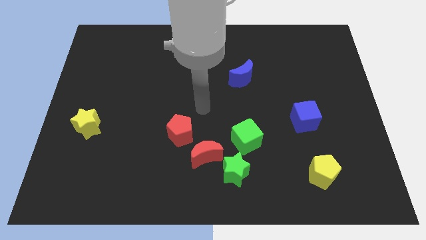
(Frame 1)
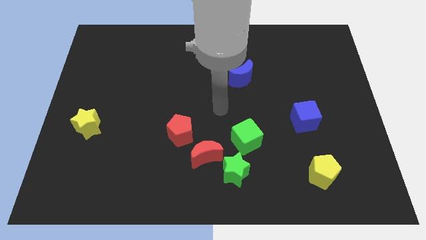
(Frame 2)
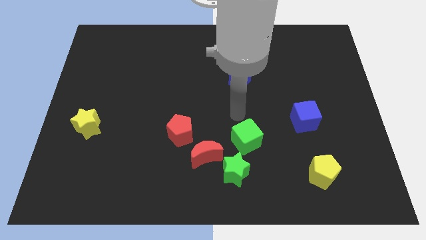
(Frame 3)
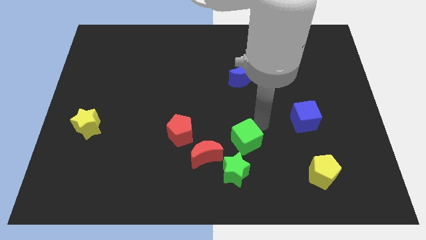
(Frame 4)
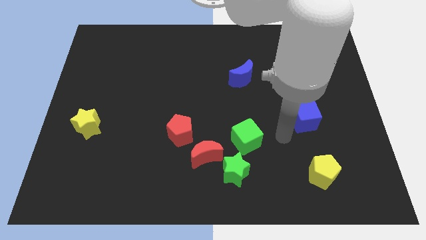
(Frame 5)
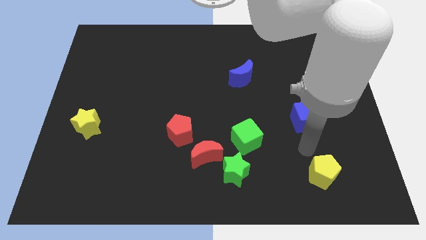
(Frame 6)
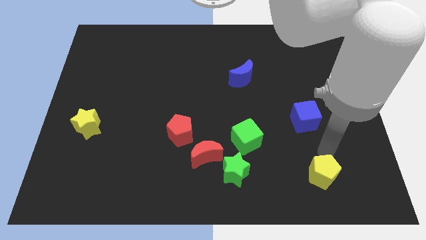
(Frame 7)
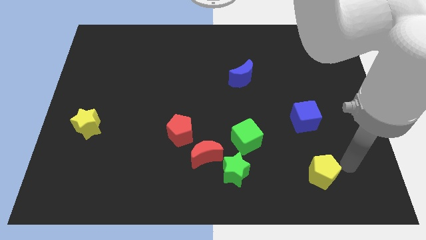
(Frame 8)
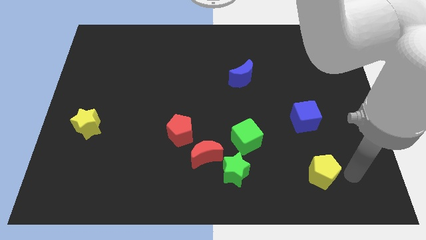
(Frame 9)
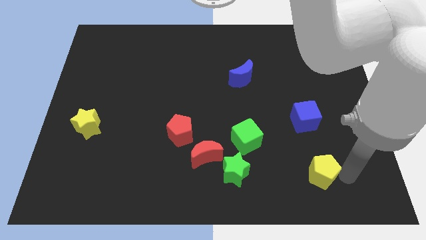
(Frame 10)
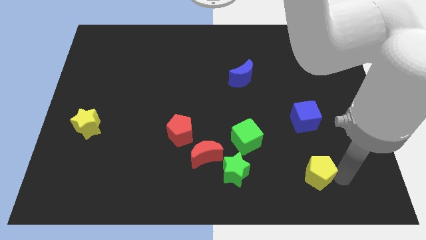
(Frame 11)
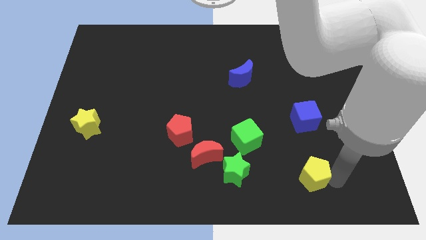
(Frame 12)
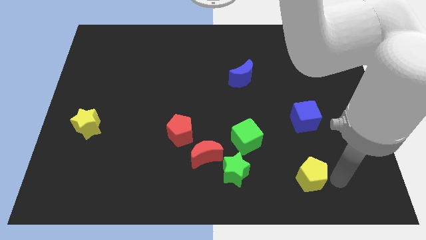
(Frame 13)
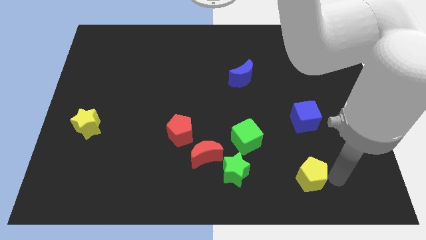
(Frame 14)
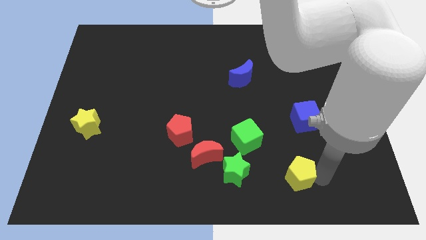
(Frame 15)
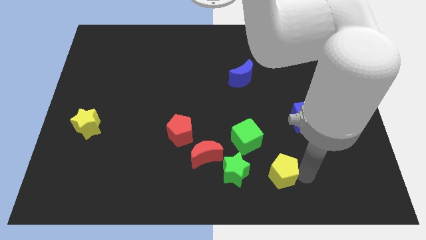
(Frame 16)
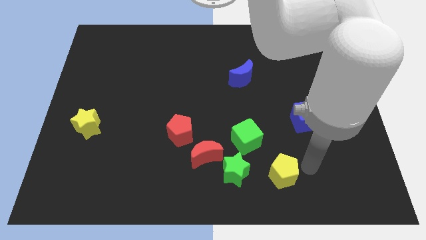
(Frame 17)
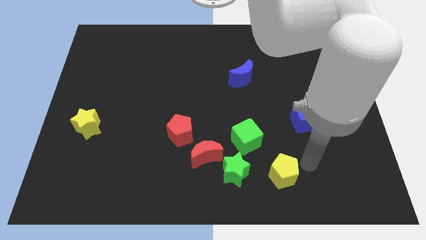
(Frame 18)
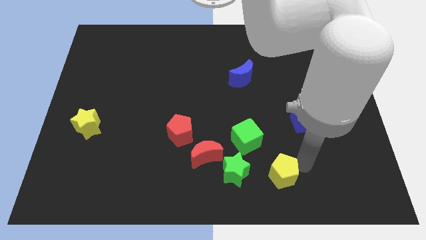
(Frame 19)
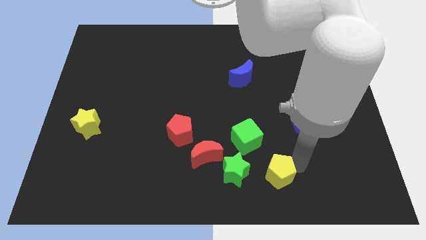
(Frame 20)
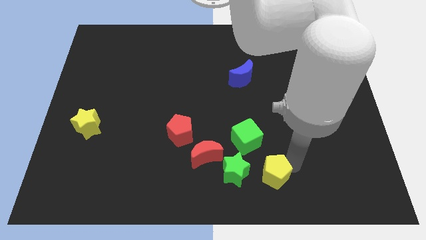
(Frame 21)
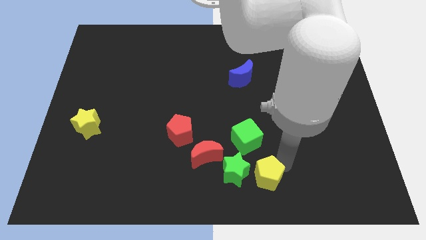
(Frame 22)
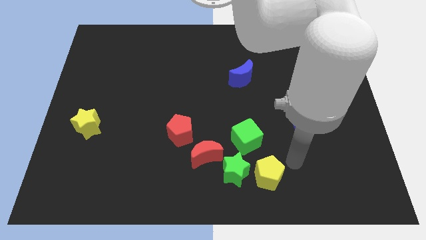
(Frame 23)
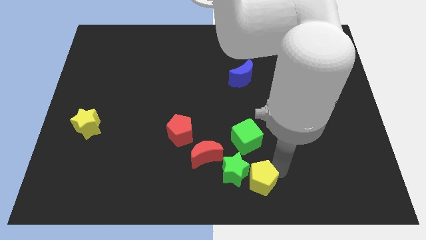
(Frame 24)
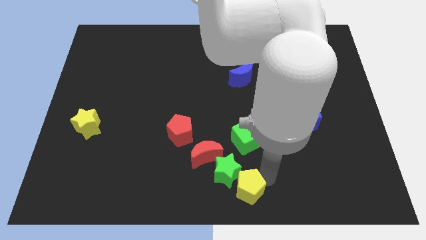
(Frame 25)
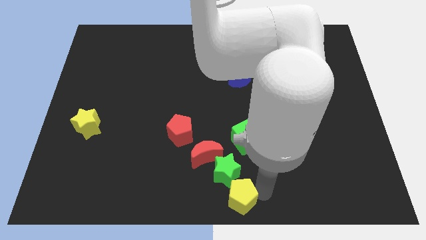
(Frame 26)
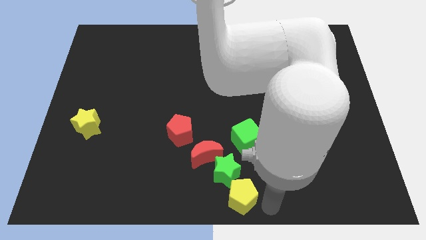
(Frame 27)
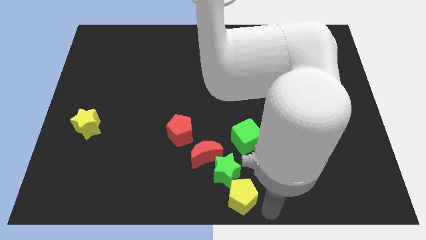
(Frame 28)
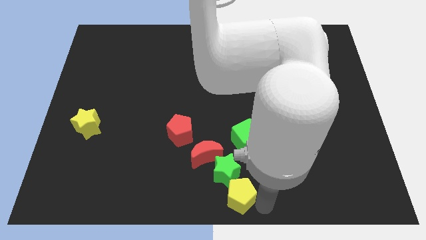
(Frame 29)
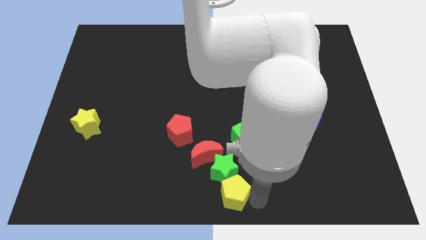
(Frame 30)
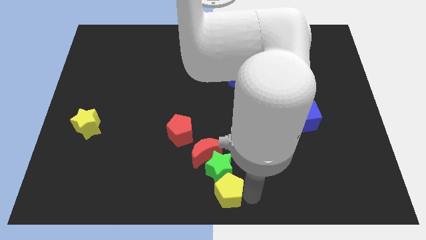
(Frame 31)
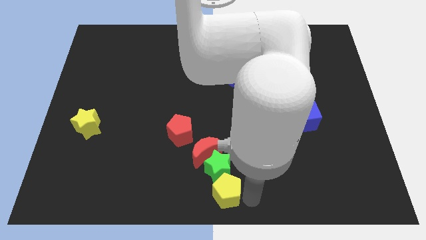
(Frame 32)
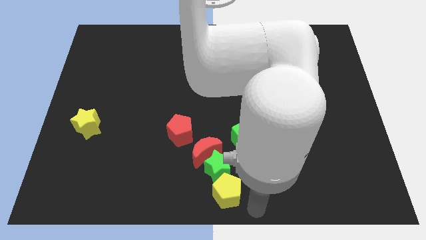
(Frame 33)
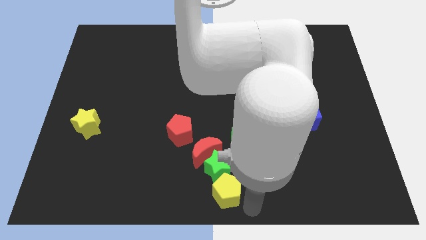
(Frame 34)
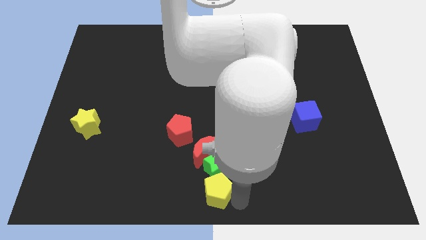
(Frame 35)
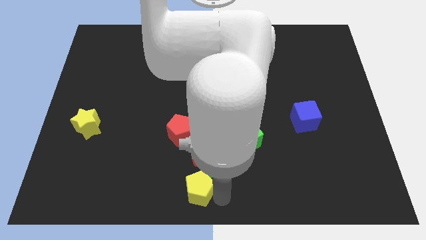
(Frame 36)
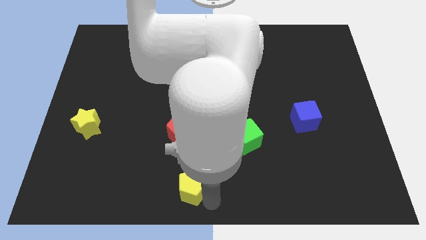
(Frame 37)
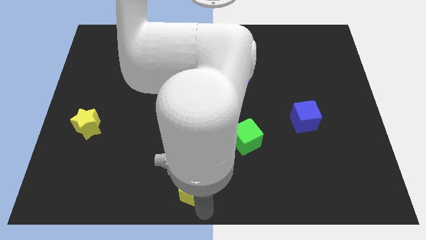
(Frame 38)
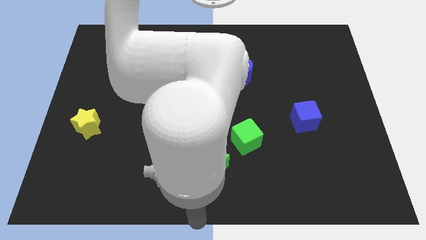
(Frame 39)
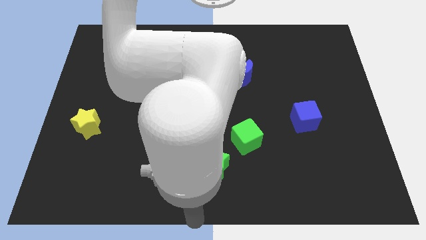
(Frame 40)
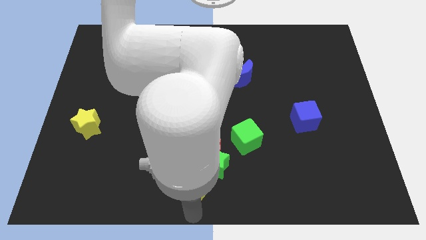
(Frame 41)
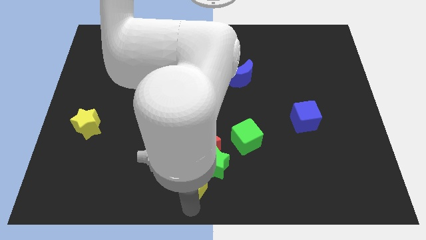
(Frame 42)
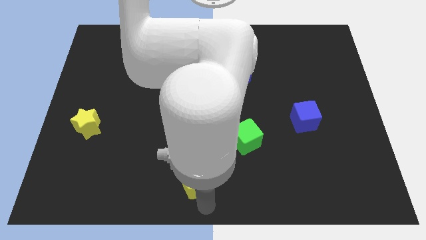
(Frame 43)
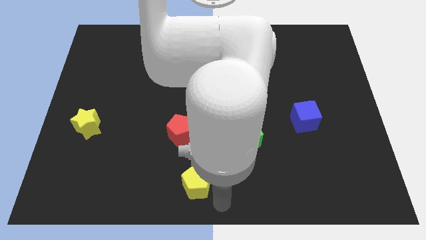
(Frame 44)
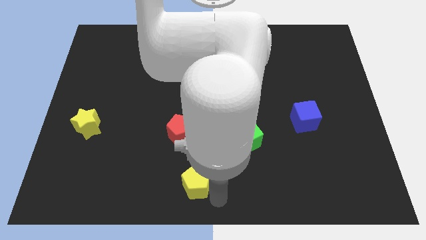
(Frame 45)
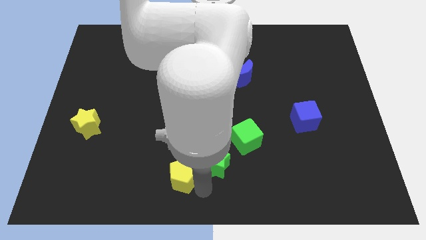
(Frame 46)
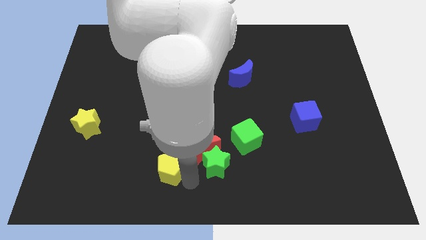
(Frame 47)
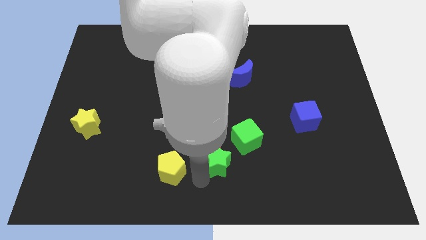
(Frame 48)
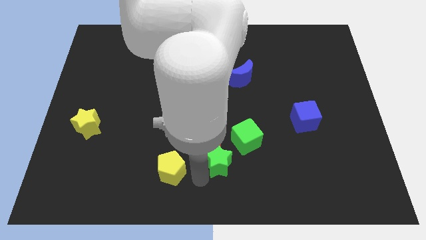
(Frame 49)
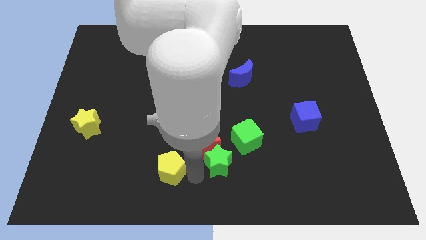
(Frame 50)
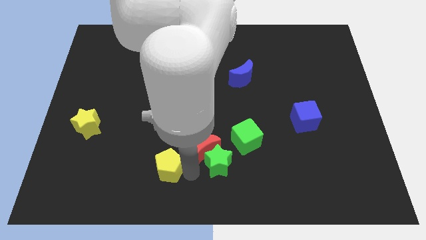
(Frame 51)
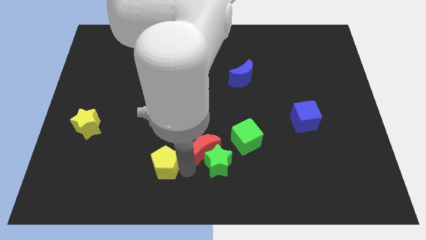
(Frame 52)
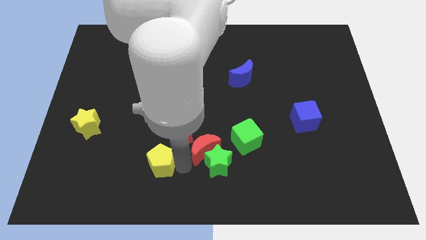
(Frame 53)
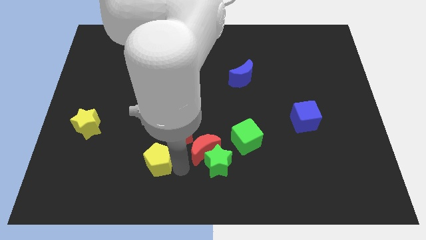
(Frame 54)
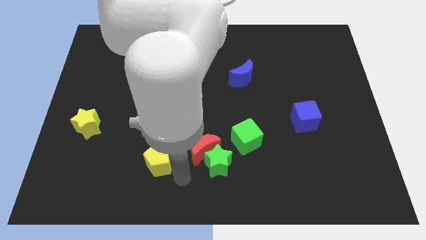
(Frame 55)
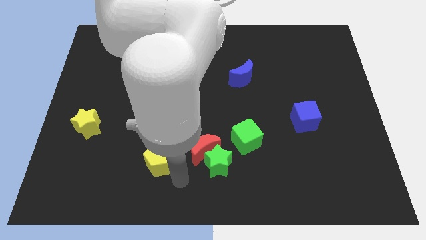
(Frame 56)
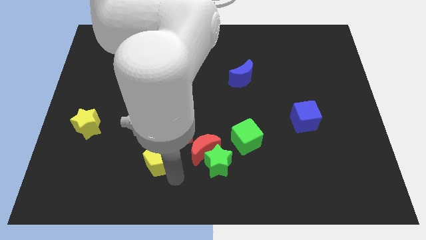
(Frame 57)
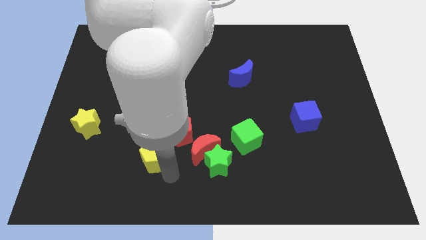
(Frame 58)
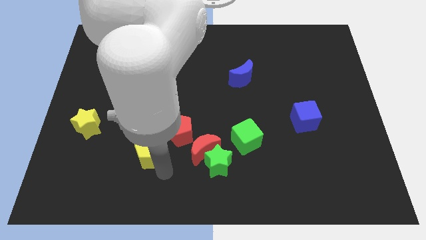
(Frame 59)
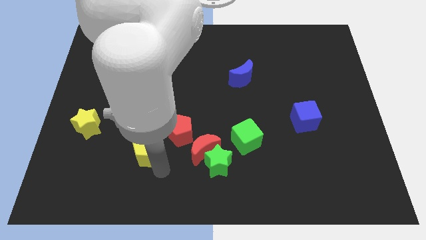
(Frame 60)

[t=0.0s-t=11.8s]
slide the yellow pentagon just left of the red pentagon

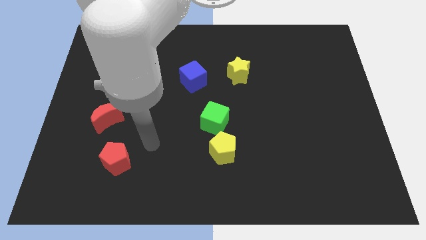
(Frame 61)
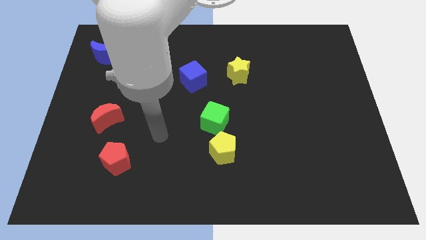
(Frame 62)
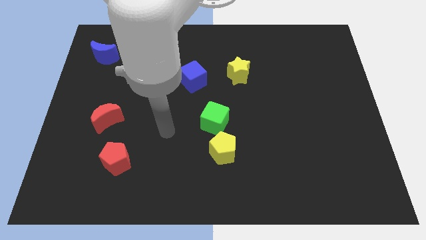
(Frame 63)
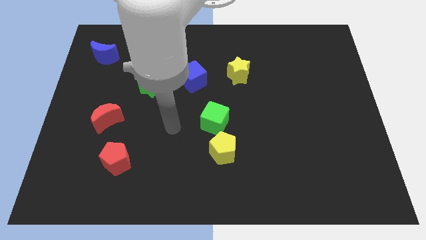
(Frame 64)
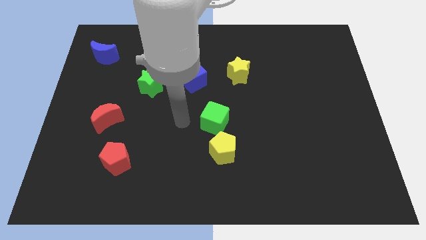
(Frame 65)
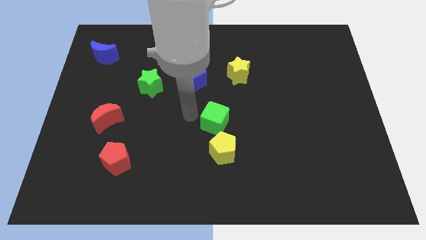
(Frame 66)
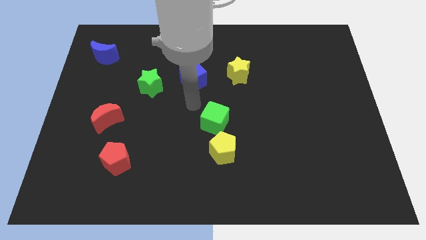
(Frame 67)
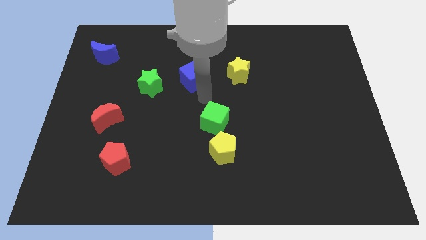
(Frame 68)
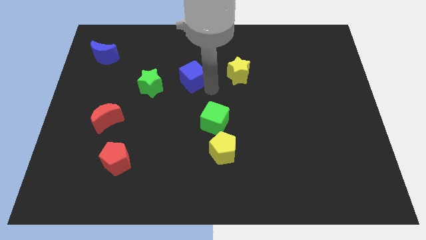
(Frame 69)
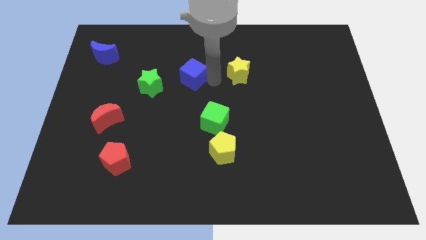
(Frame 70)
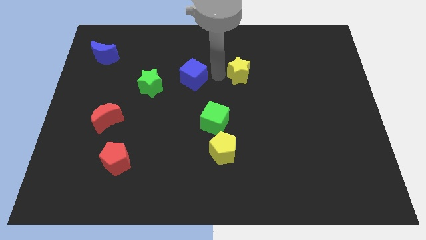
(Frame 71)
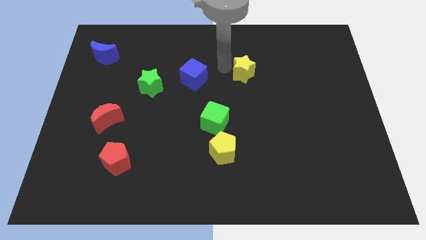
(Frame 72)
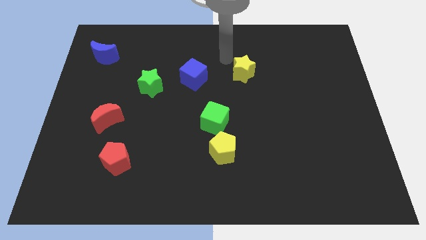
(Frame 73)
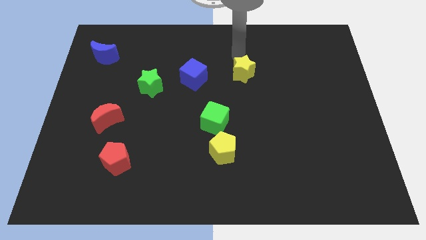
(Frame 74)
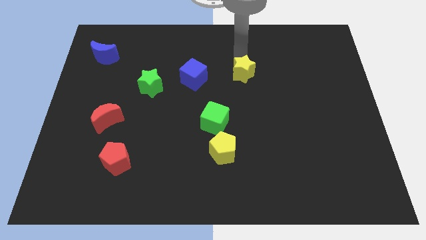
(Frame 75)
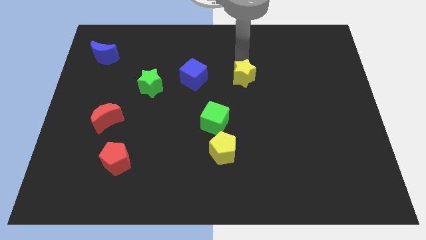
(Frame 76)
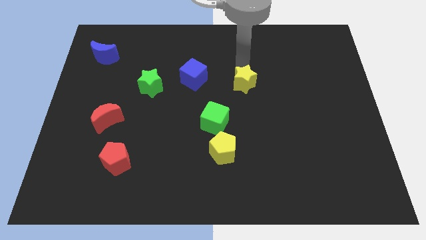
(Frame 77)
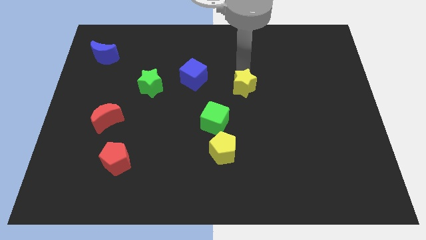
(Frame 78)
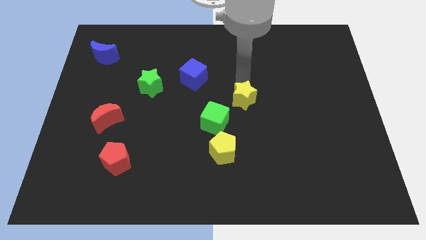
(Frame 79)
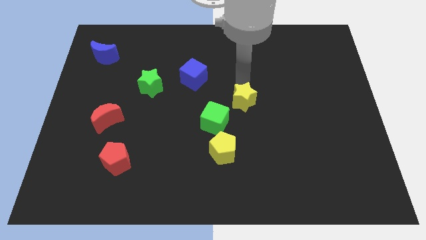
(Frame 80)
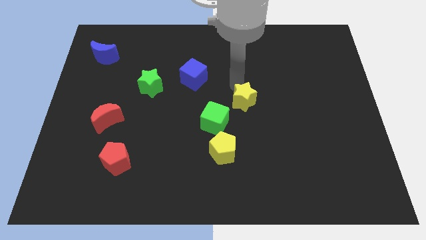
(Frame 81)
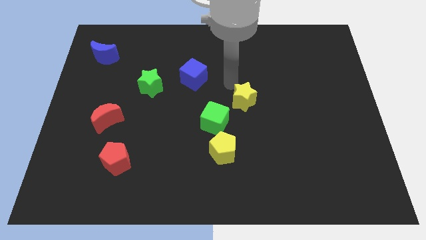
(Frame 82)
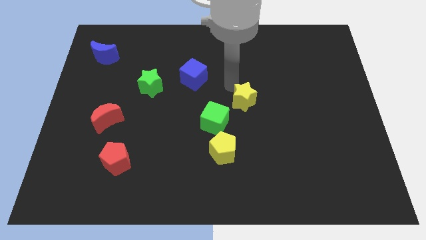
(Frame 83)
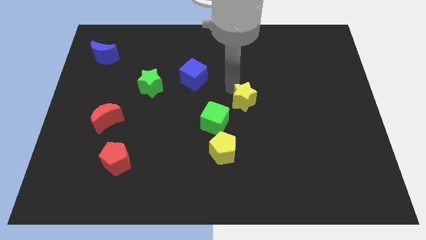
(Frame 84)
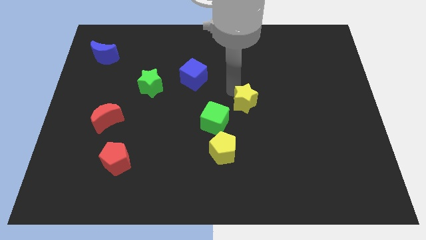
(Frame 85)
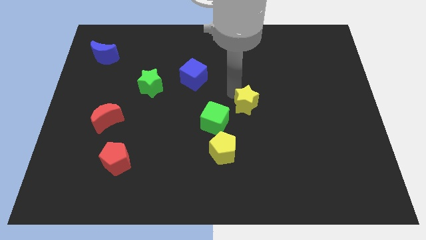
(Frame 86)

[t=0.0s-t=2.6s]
put the yellow star just right of the green cube
